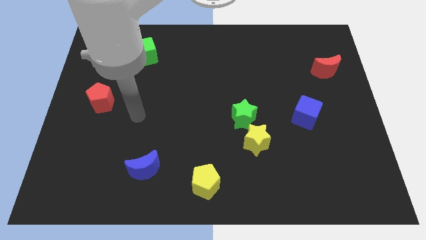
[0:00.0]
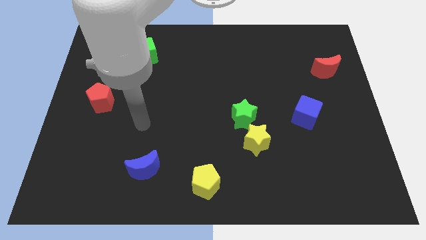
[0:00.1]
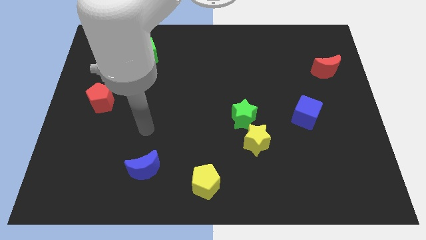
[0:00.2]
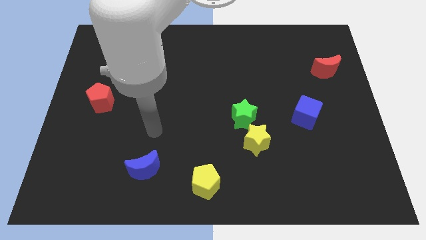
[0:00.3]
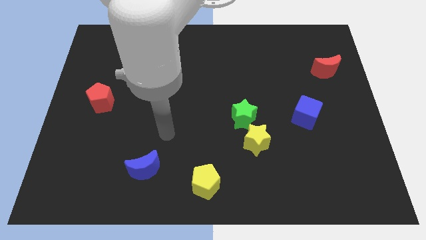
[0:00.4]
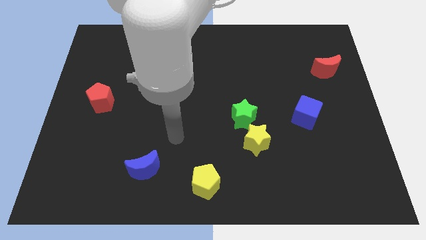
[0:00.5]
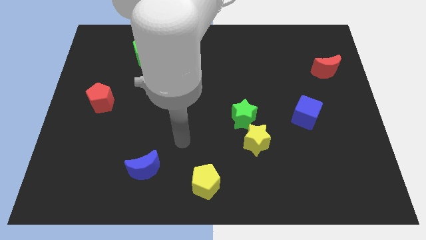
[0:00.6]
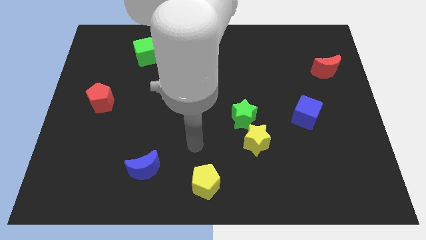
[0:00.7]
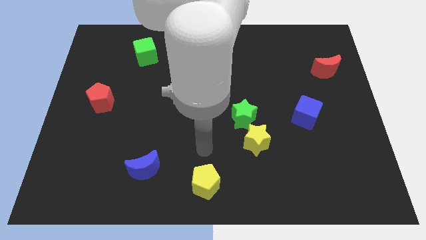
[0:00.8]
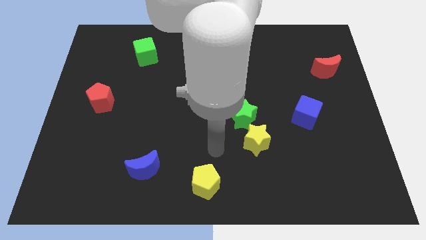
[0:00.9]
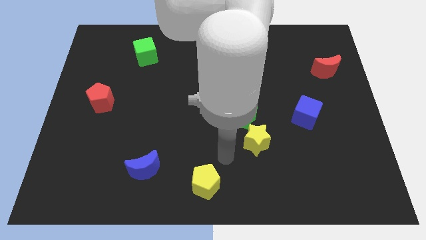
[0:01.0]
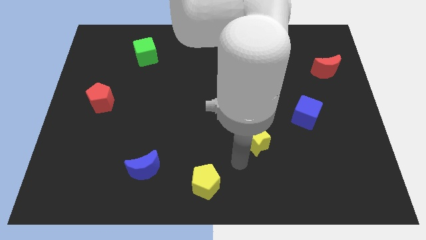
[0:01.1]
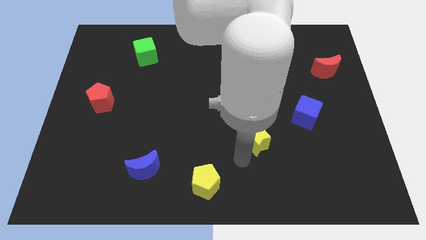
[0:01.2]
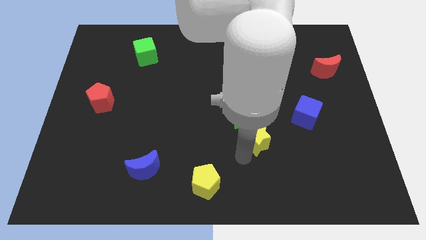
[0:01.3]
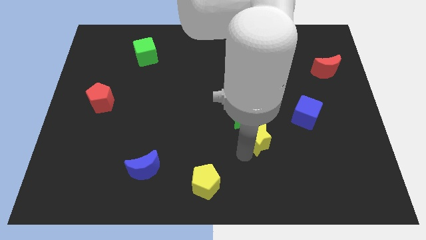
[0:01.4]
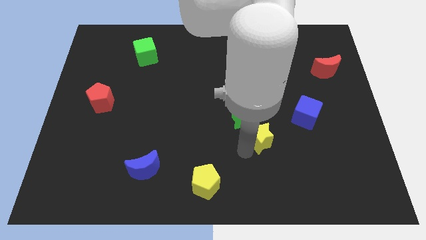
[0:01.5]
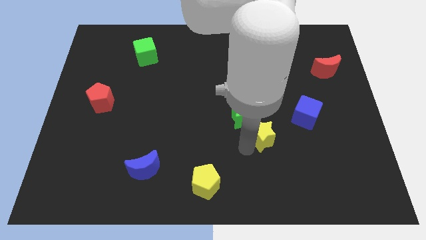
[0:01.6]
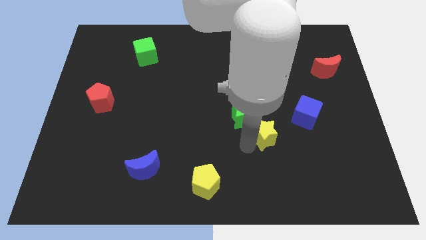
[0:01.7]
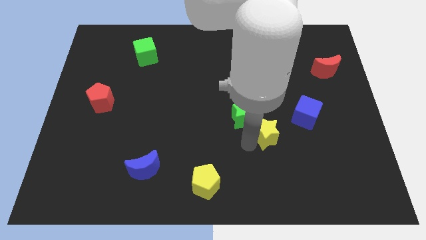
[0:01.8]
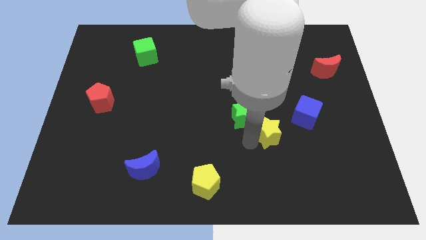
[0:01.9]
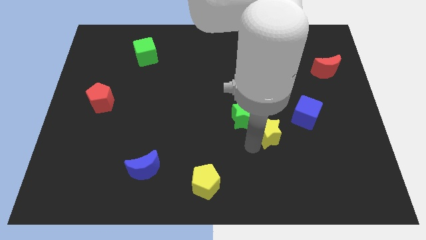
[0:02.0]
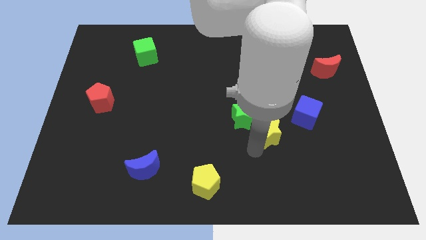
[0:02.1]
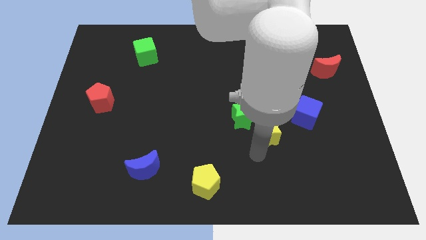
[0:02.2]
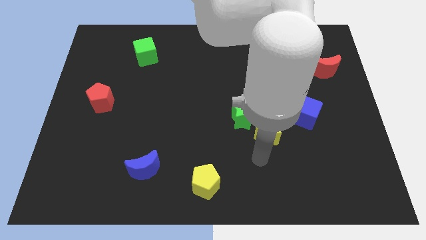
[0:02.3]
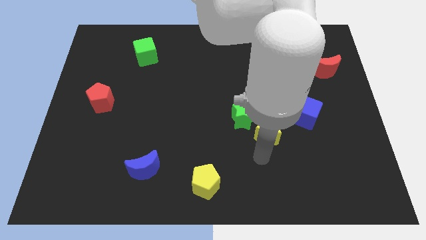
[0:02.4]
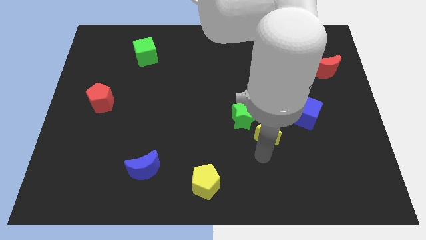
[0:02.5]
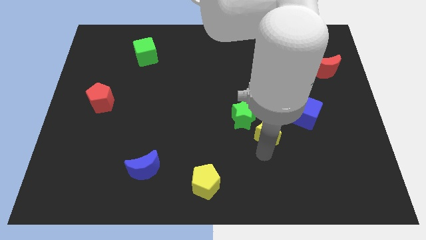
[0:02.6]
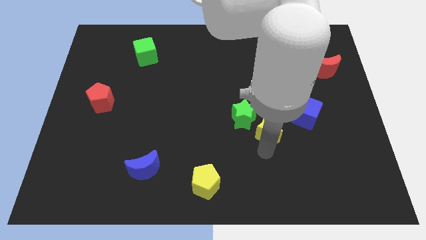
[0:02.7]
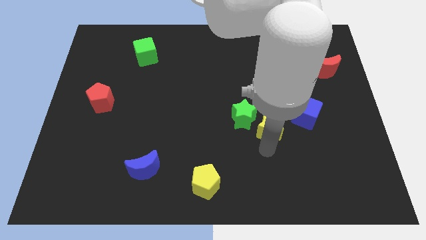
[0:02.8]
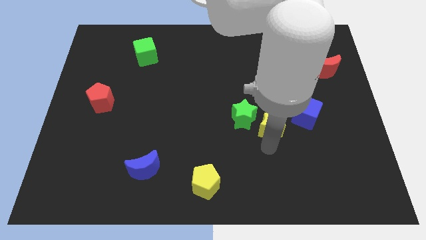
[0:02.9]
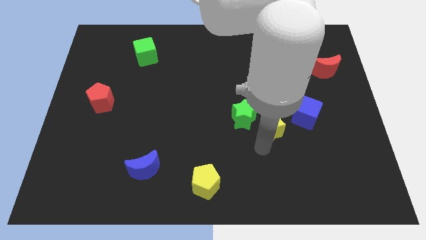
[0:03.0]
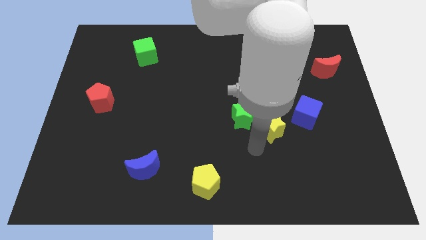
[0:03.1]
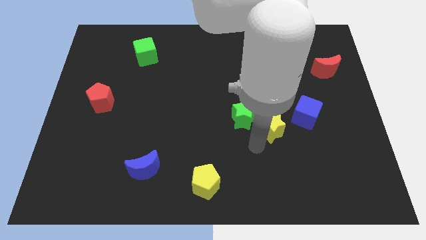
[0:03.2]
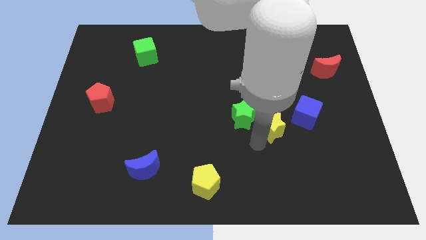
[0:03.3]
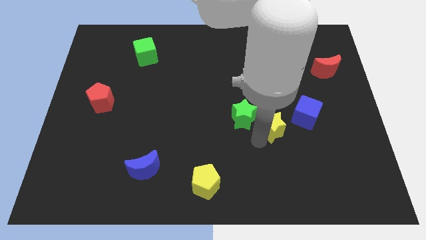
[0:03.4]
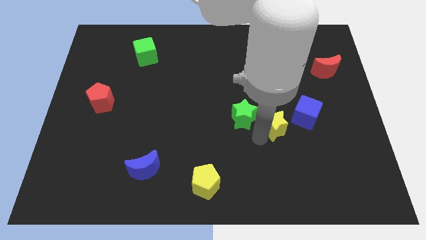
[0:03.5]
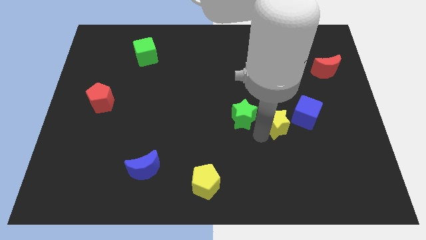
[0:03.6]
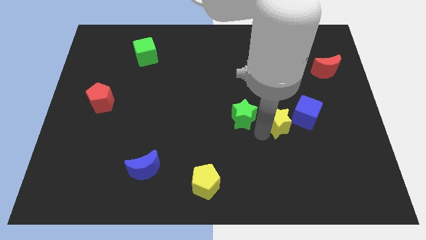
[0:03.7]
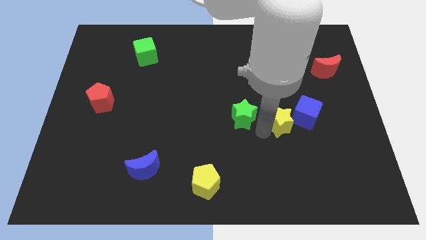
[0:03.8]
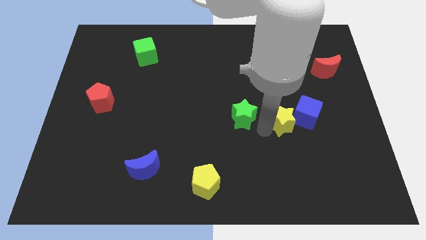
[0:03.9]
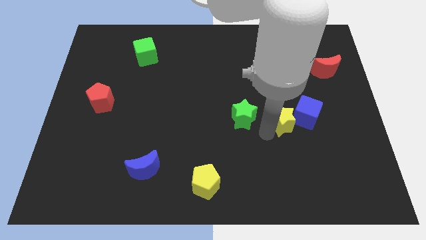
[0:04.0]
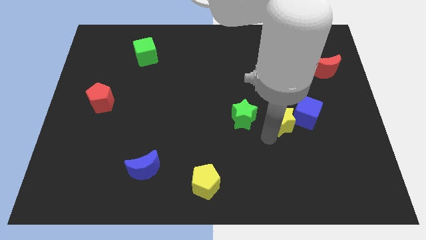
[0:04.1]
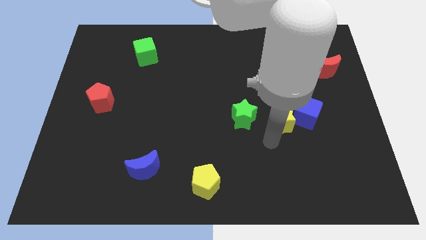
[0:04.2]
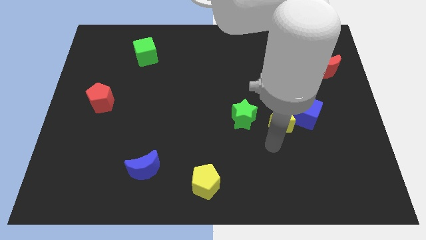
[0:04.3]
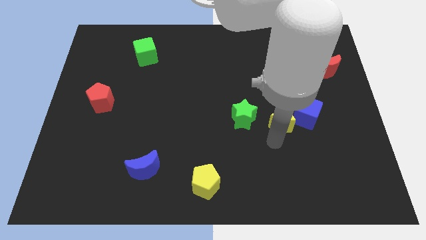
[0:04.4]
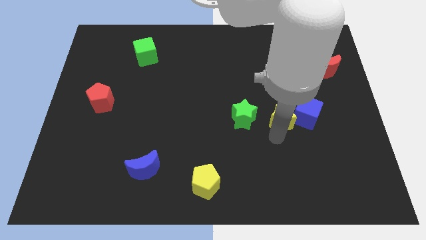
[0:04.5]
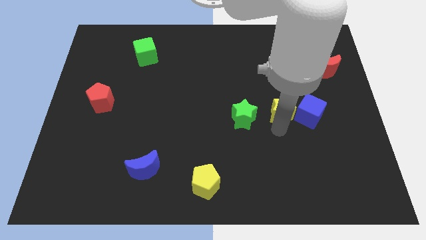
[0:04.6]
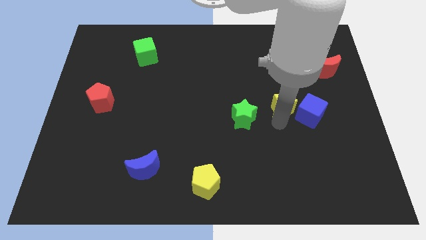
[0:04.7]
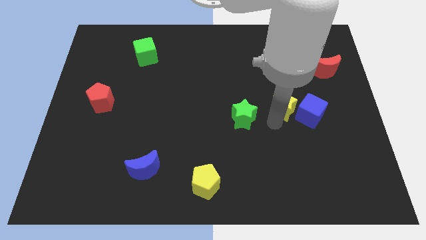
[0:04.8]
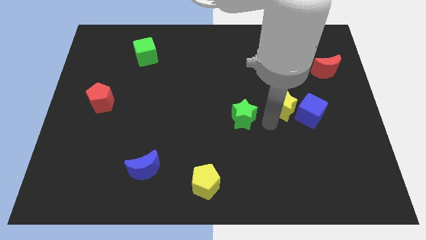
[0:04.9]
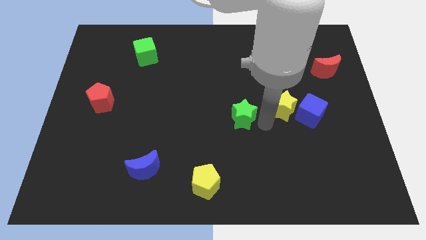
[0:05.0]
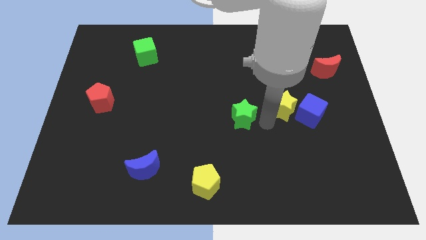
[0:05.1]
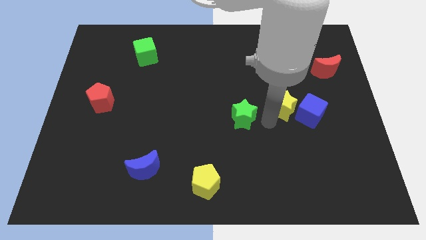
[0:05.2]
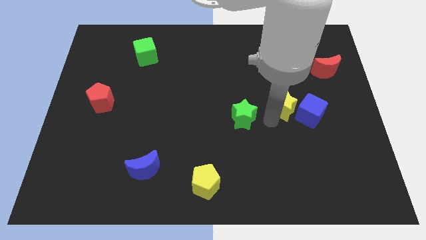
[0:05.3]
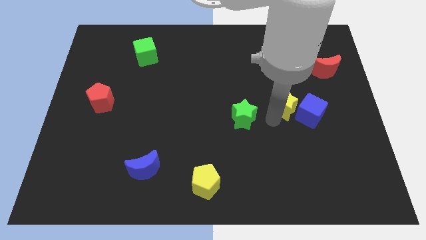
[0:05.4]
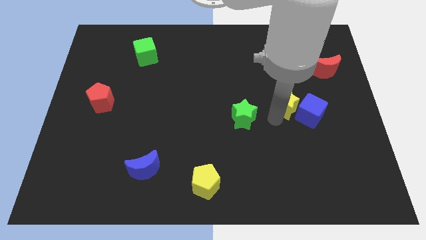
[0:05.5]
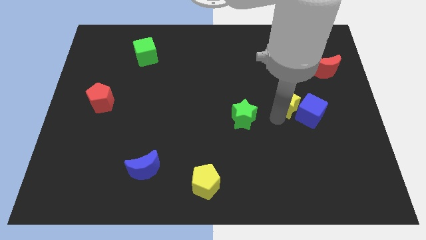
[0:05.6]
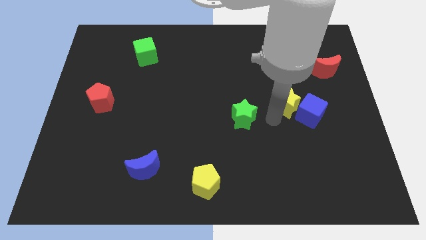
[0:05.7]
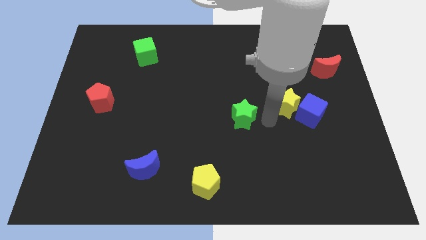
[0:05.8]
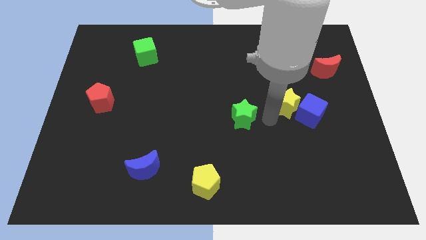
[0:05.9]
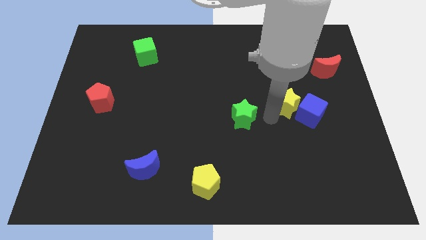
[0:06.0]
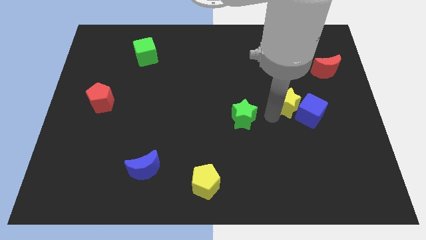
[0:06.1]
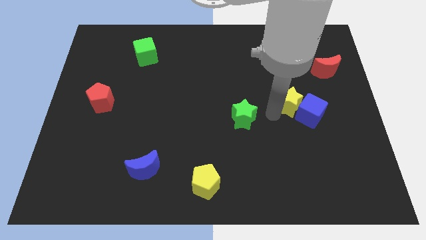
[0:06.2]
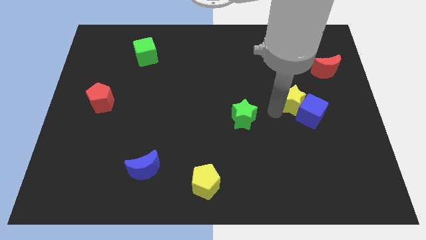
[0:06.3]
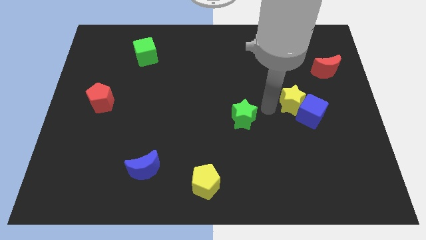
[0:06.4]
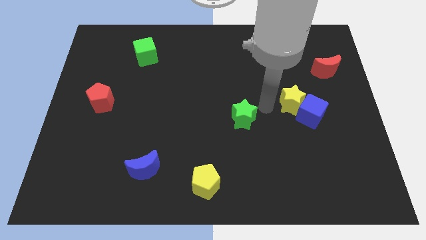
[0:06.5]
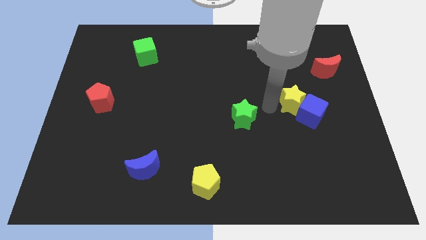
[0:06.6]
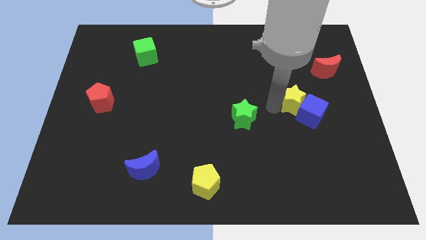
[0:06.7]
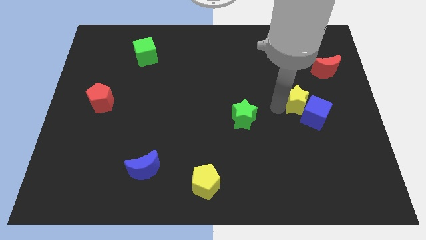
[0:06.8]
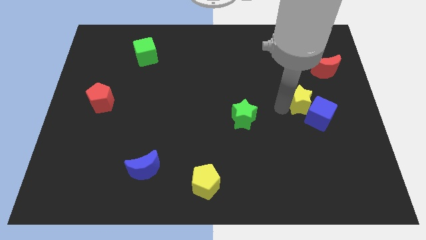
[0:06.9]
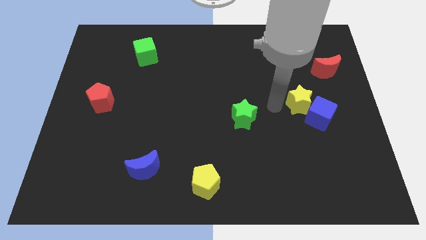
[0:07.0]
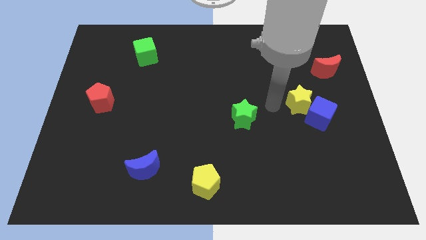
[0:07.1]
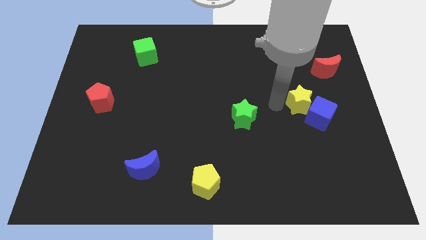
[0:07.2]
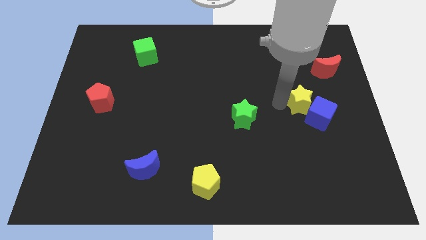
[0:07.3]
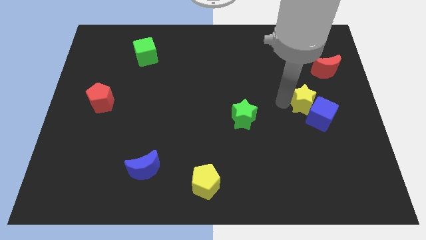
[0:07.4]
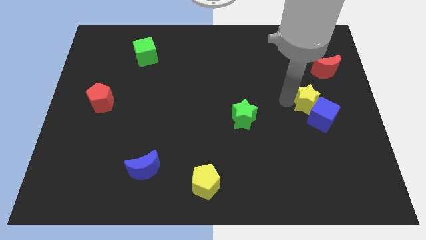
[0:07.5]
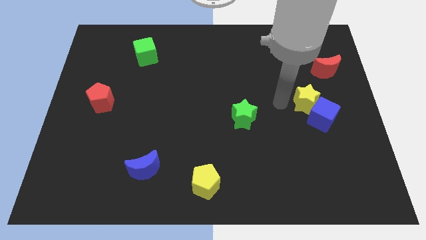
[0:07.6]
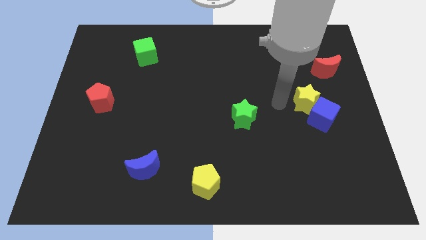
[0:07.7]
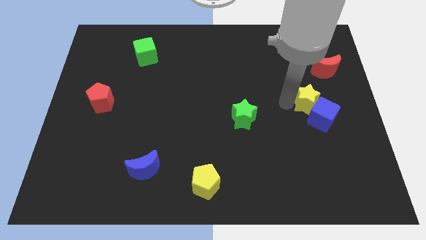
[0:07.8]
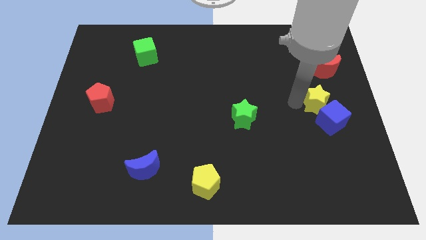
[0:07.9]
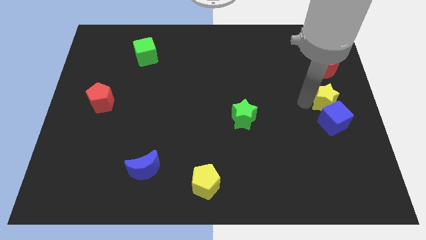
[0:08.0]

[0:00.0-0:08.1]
push the yellow star diagonally up and to the right of the blue cube
